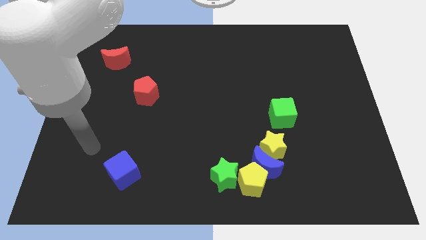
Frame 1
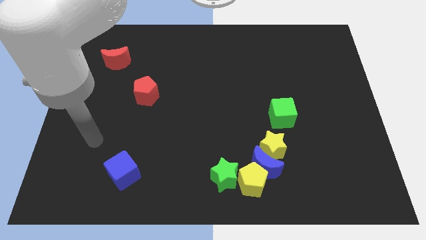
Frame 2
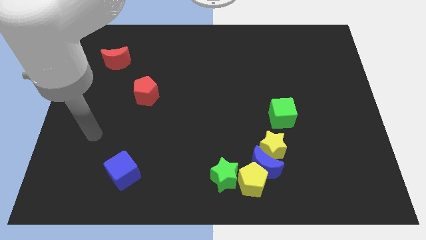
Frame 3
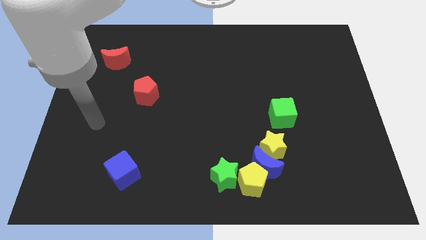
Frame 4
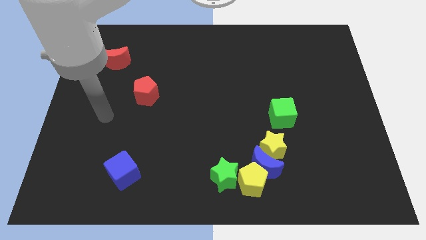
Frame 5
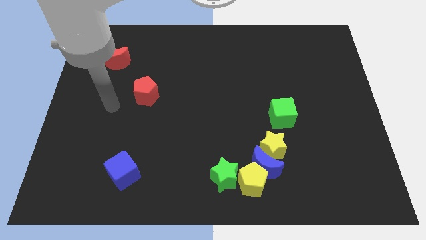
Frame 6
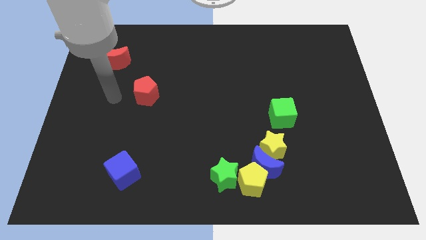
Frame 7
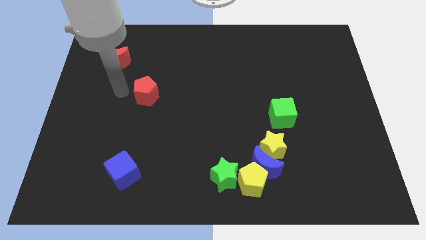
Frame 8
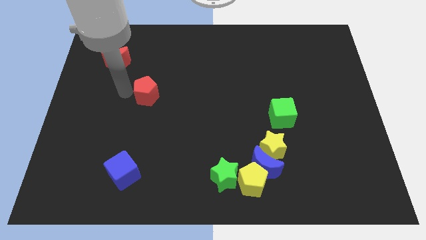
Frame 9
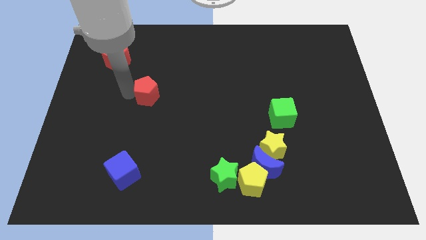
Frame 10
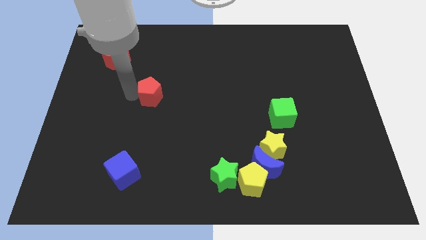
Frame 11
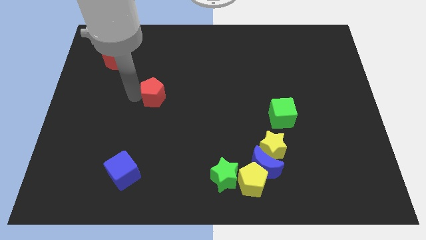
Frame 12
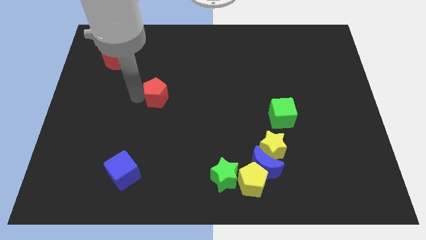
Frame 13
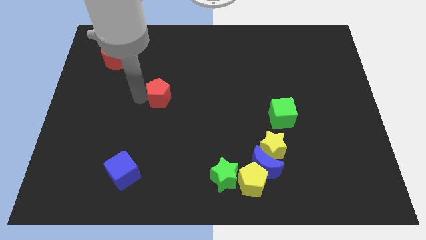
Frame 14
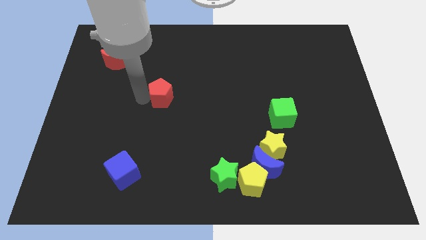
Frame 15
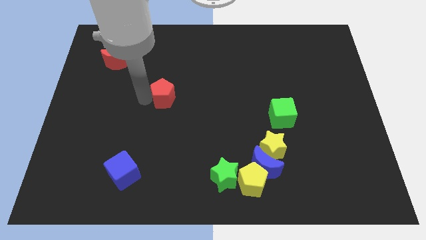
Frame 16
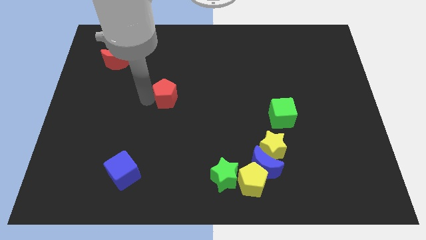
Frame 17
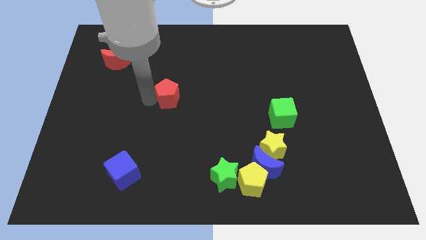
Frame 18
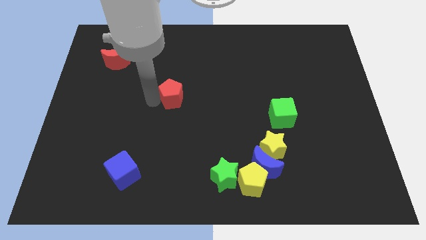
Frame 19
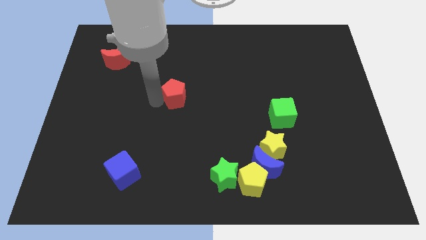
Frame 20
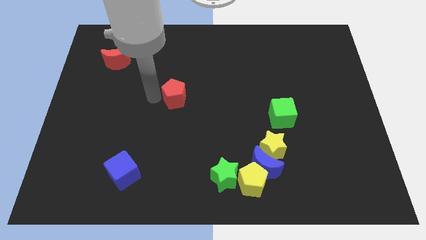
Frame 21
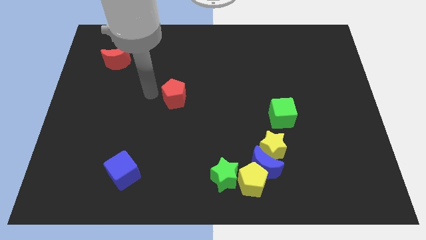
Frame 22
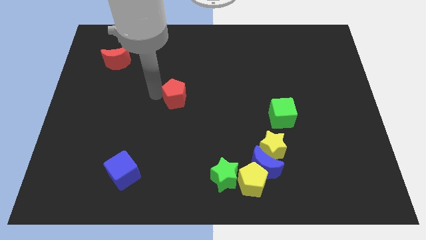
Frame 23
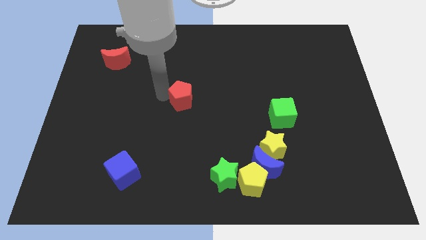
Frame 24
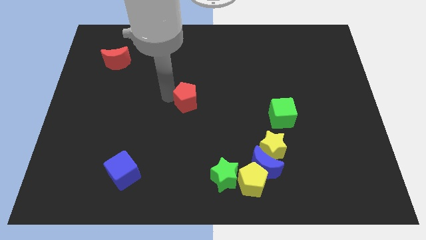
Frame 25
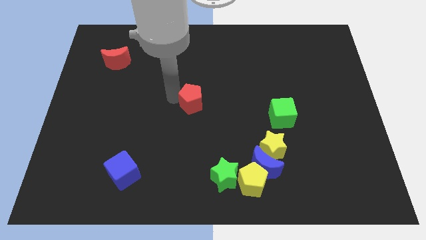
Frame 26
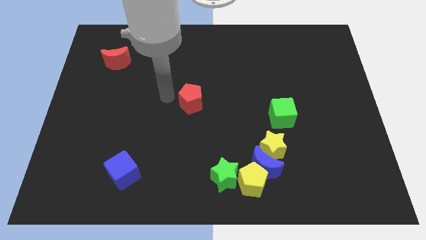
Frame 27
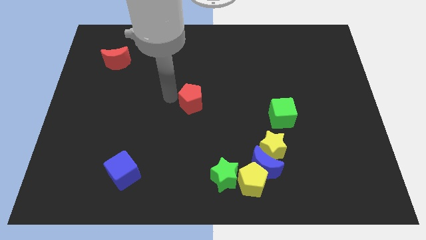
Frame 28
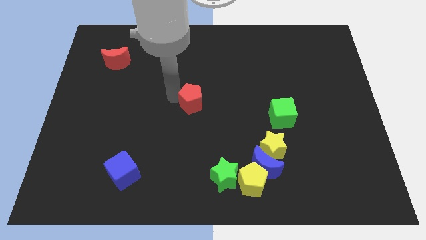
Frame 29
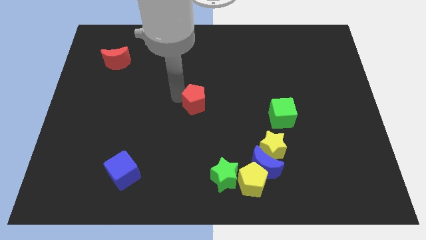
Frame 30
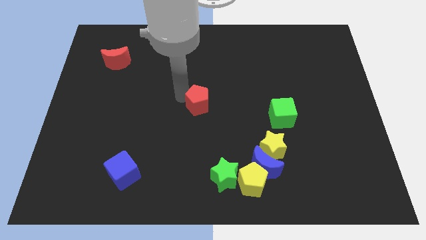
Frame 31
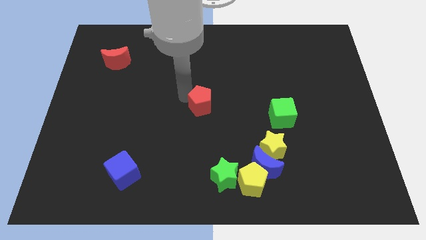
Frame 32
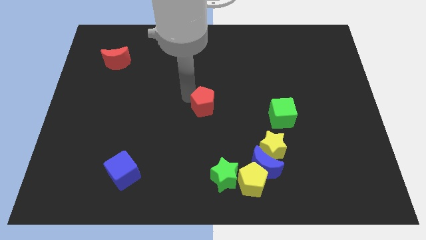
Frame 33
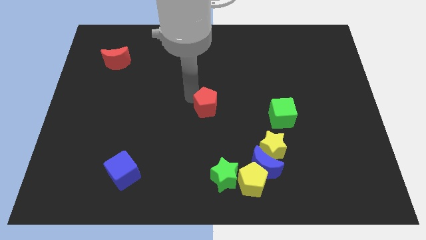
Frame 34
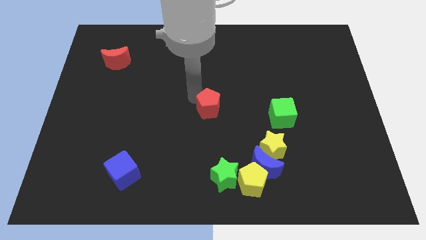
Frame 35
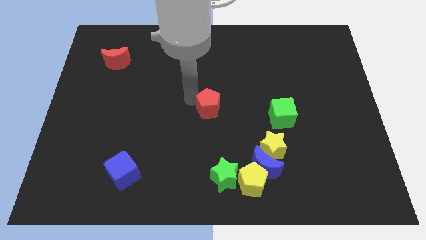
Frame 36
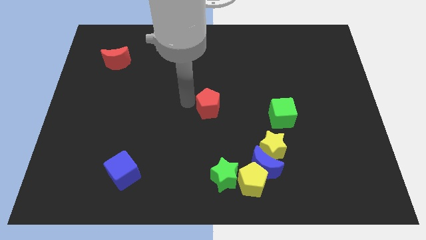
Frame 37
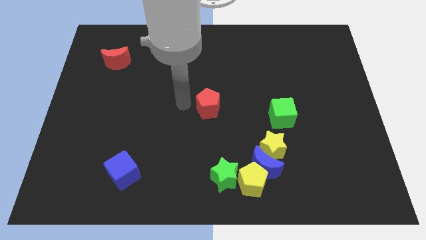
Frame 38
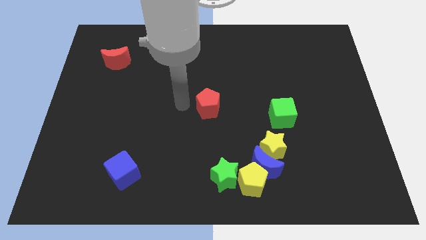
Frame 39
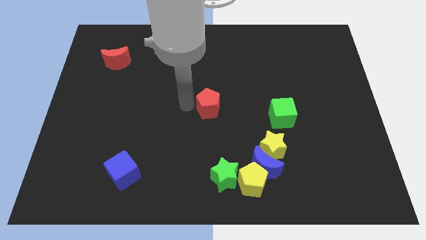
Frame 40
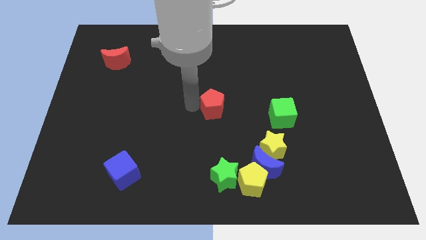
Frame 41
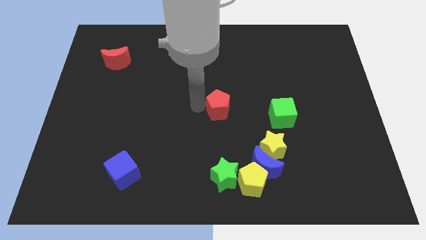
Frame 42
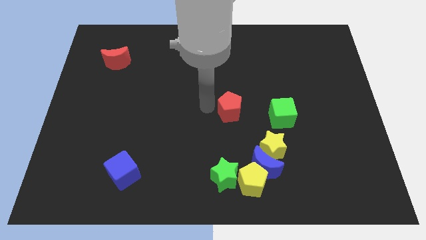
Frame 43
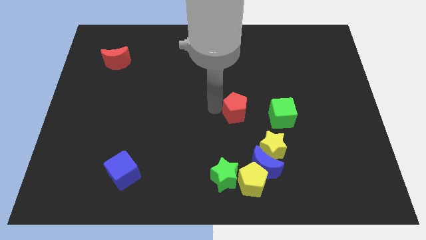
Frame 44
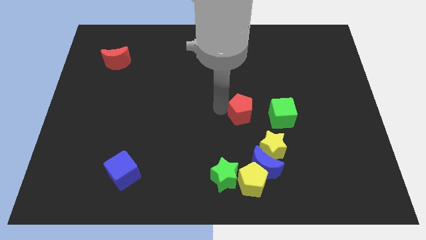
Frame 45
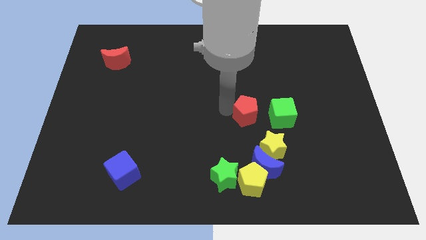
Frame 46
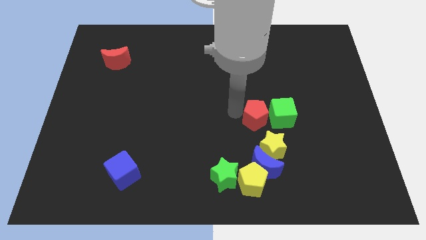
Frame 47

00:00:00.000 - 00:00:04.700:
push the red pentagon next to the green cube

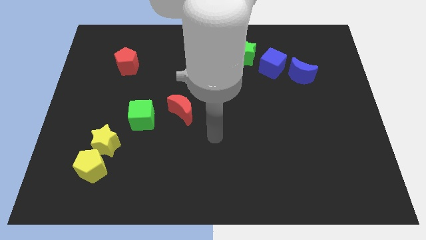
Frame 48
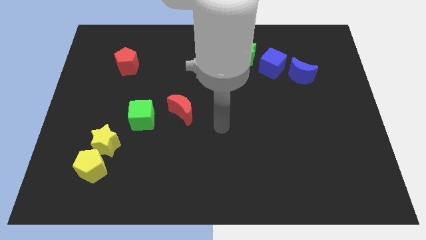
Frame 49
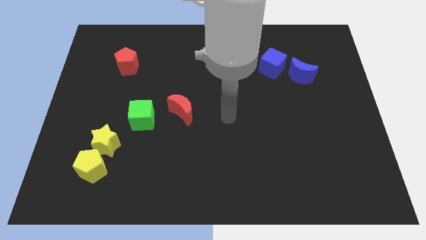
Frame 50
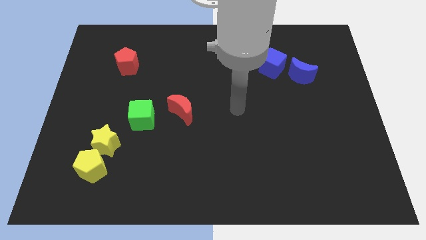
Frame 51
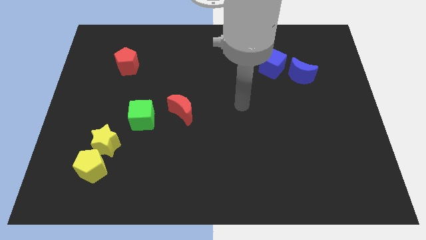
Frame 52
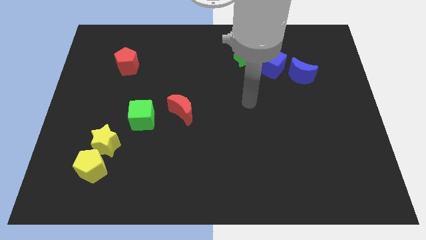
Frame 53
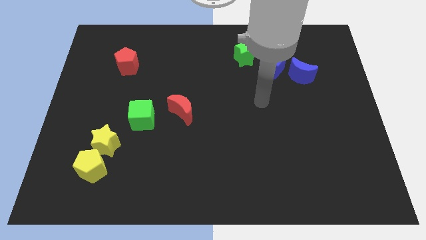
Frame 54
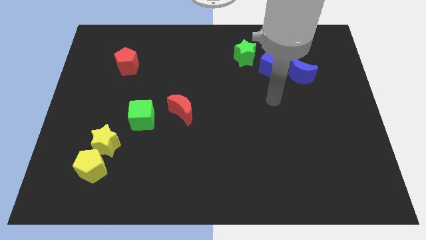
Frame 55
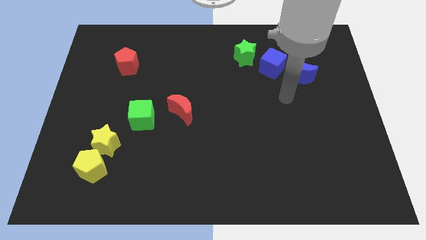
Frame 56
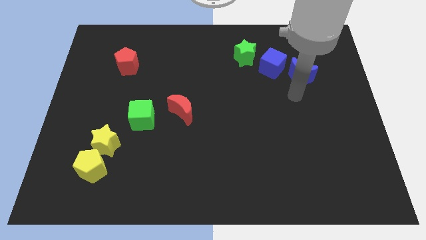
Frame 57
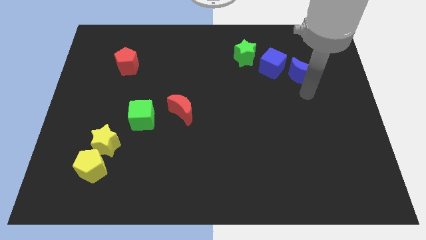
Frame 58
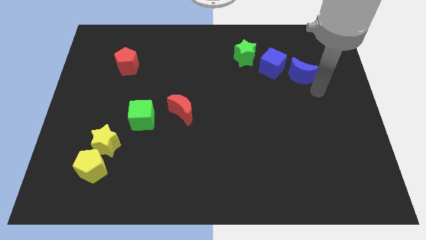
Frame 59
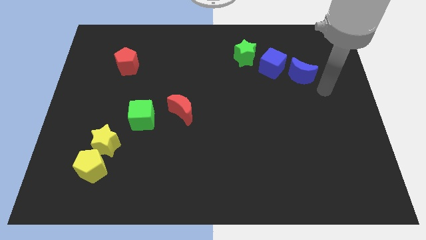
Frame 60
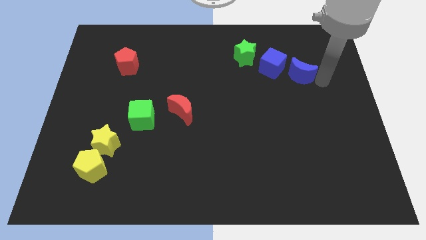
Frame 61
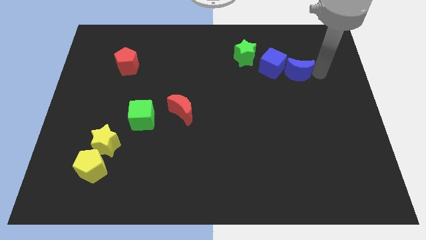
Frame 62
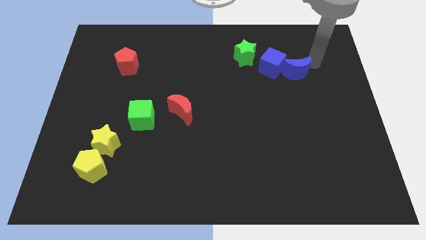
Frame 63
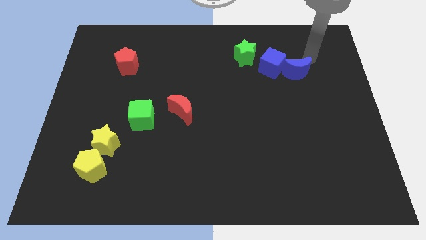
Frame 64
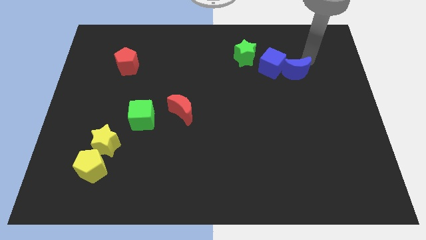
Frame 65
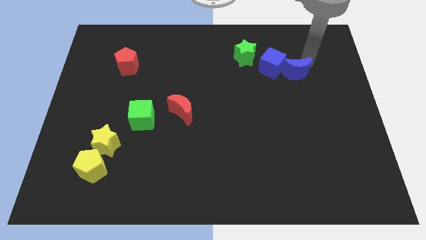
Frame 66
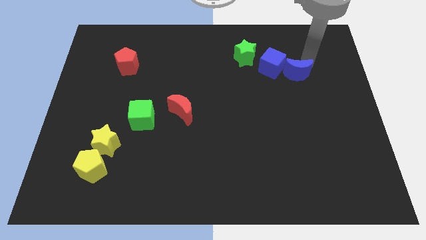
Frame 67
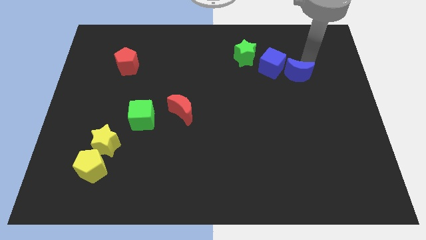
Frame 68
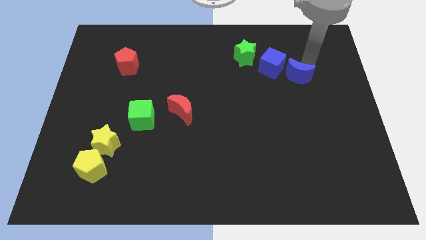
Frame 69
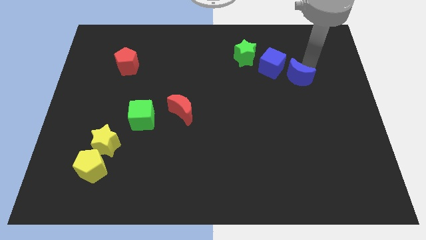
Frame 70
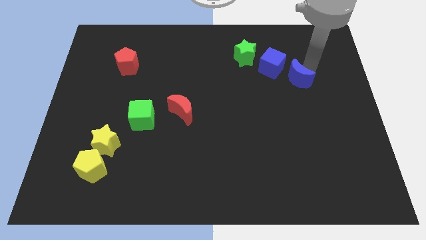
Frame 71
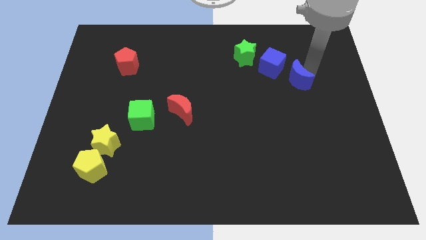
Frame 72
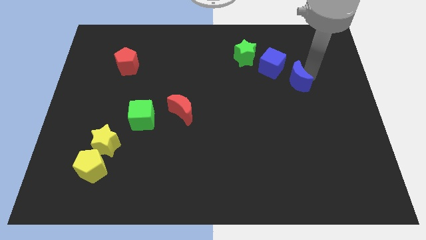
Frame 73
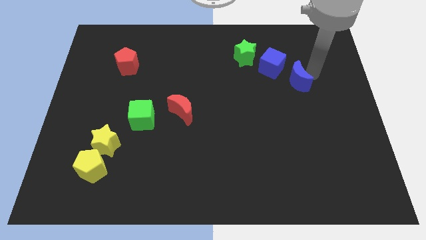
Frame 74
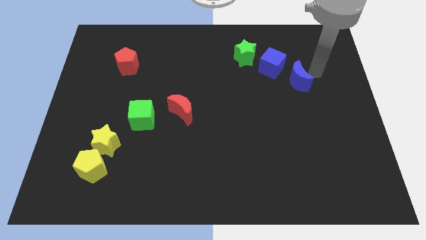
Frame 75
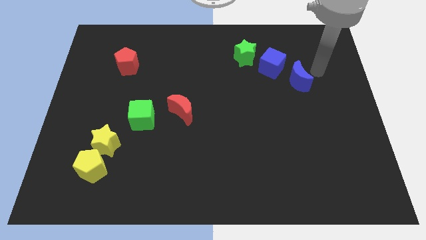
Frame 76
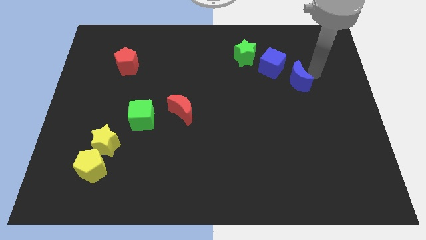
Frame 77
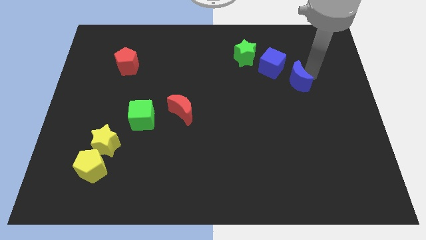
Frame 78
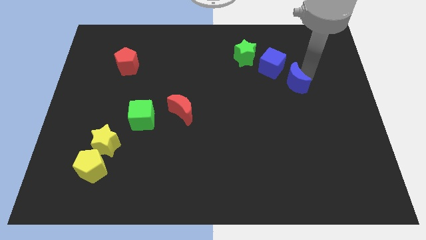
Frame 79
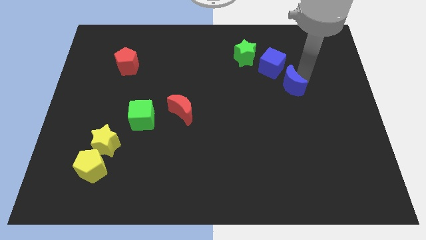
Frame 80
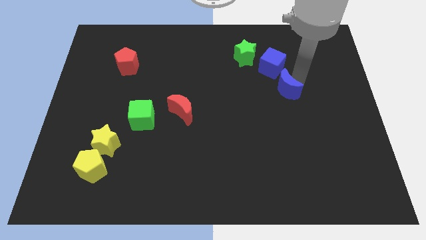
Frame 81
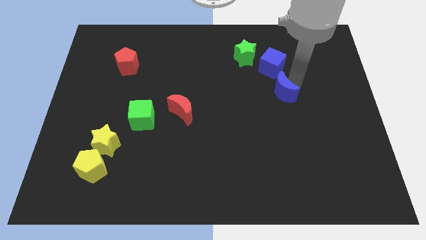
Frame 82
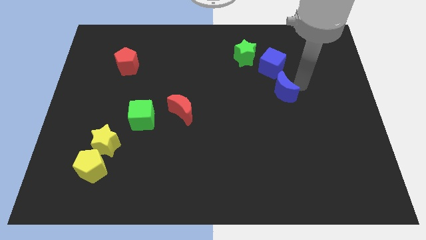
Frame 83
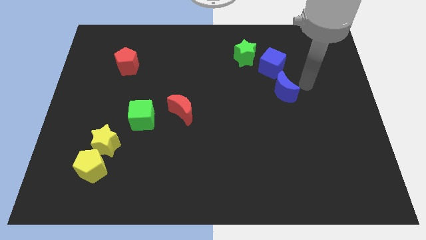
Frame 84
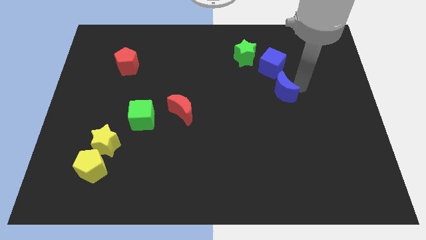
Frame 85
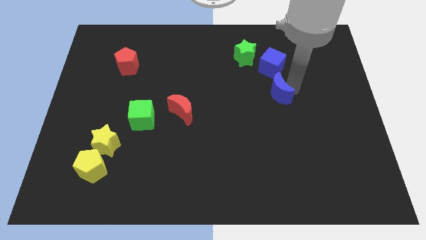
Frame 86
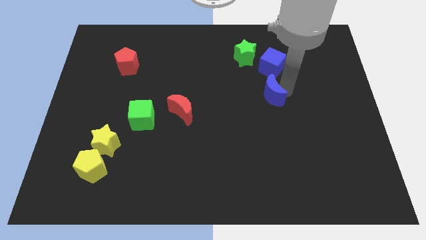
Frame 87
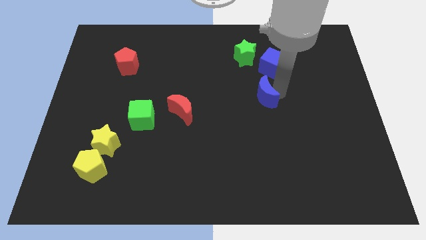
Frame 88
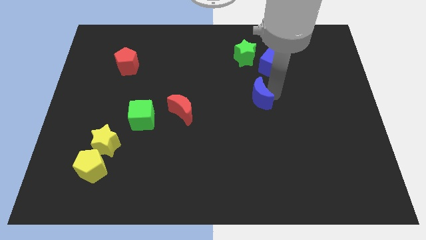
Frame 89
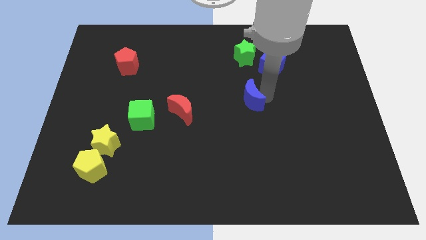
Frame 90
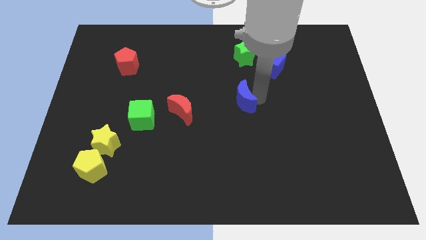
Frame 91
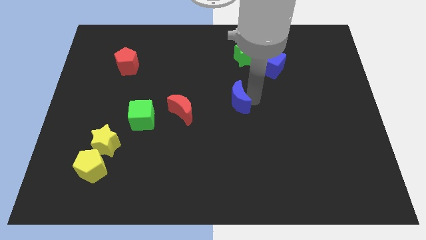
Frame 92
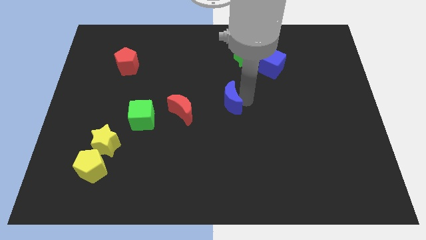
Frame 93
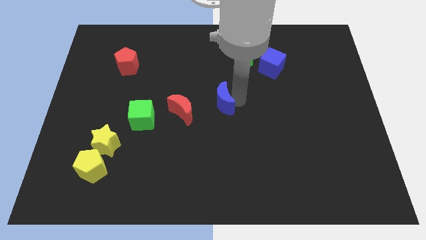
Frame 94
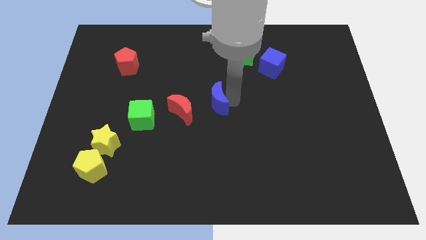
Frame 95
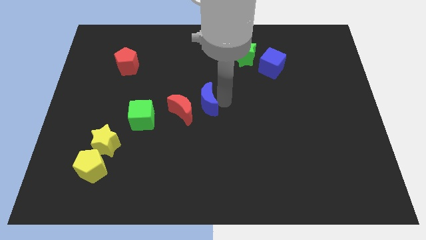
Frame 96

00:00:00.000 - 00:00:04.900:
push the blue moon next to the red moon
